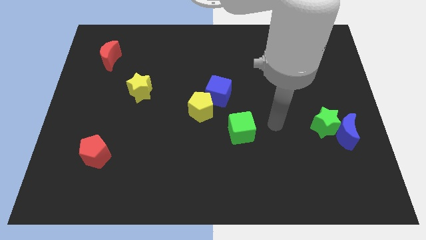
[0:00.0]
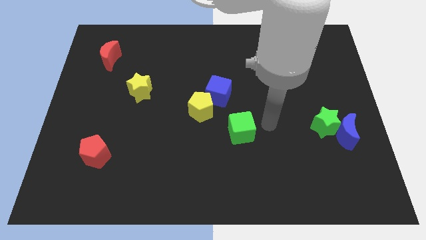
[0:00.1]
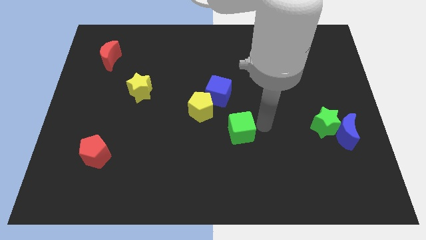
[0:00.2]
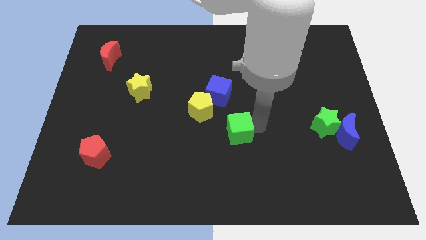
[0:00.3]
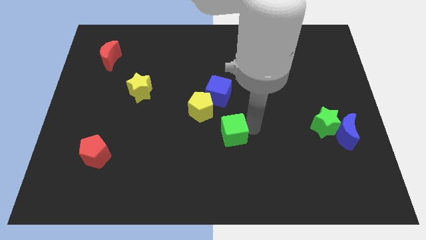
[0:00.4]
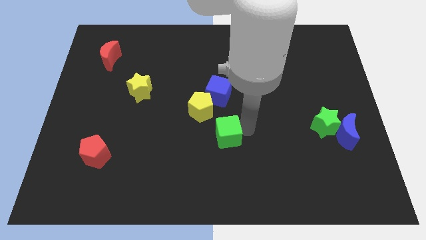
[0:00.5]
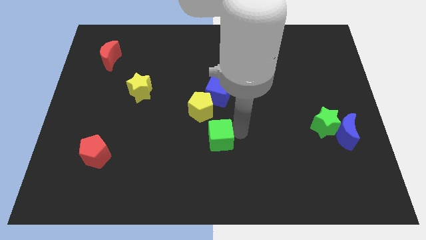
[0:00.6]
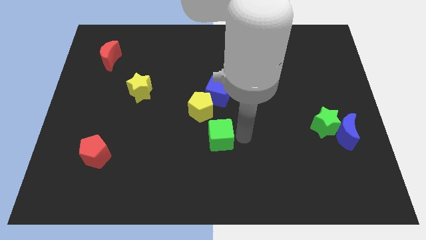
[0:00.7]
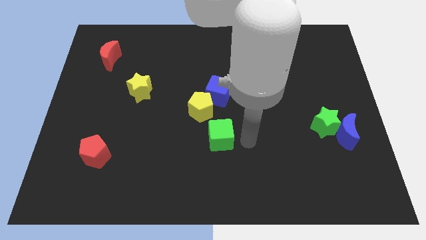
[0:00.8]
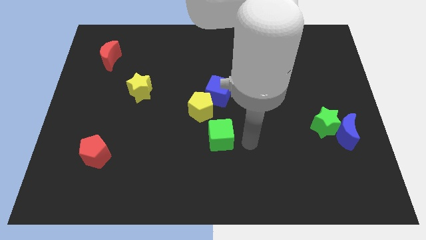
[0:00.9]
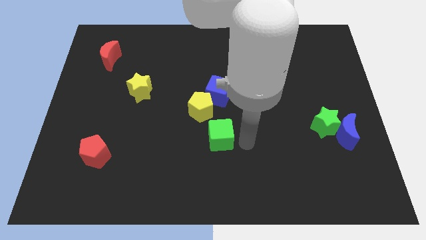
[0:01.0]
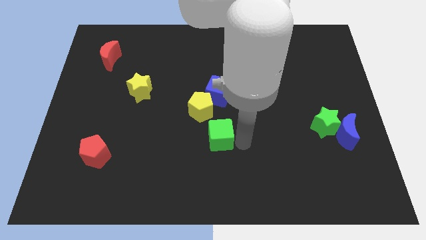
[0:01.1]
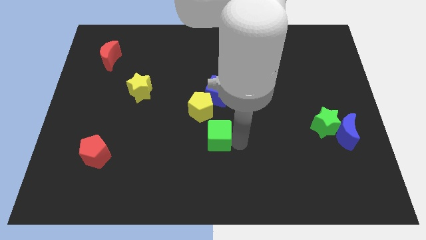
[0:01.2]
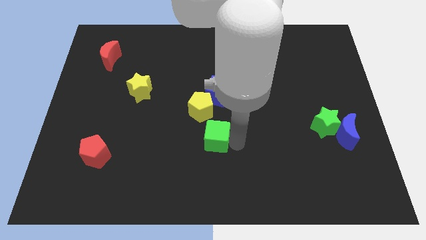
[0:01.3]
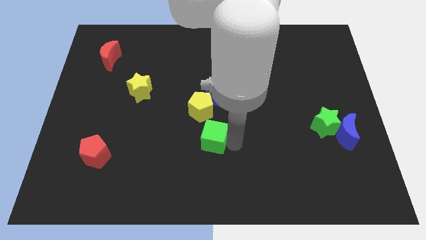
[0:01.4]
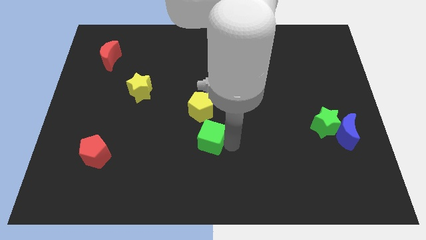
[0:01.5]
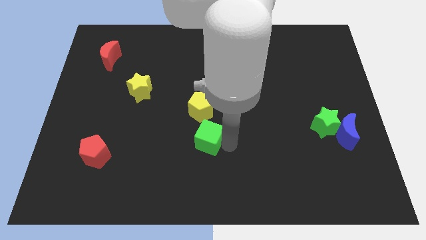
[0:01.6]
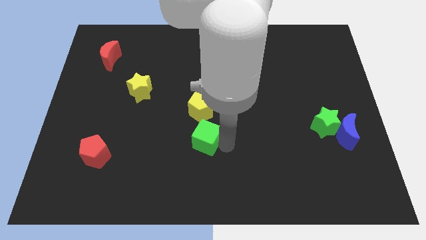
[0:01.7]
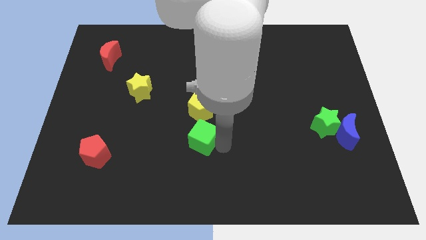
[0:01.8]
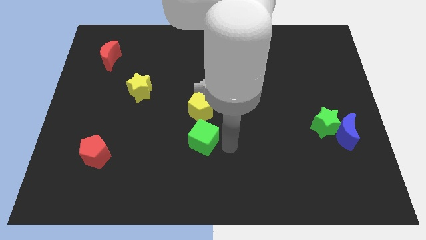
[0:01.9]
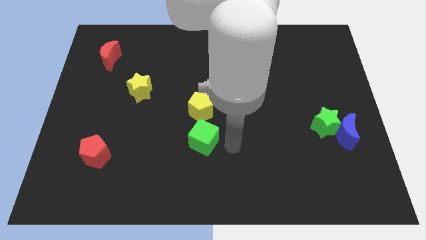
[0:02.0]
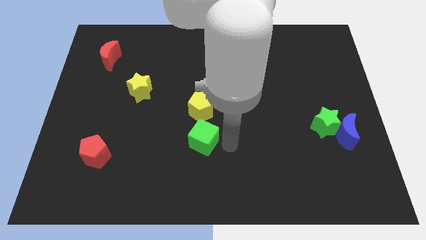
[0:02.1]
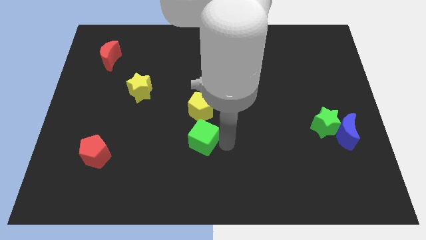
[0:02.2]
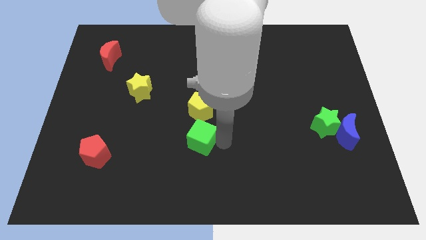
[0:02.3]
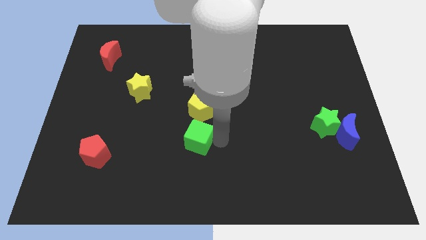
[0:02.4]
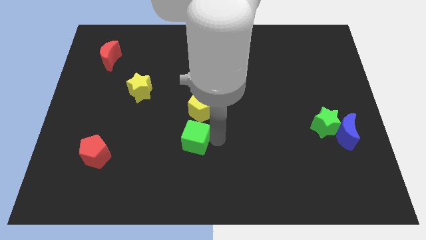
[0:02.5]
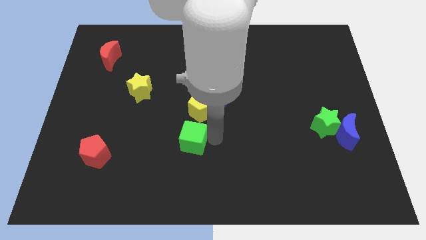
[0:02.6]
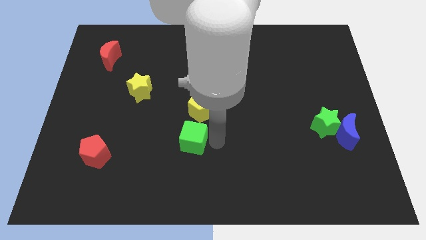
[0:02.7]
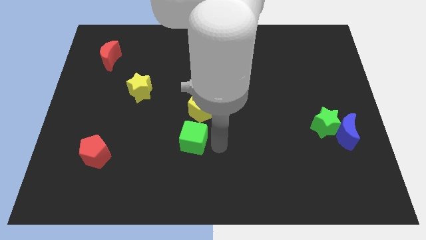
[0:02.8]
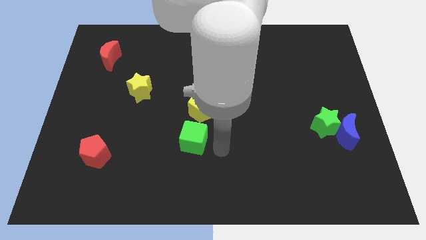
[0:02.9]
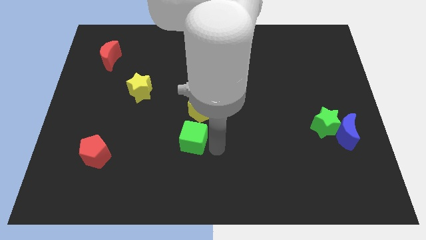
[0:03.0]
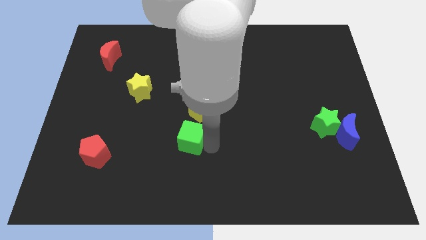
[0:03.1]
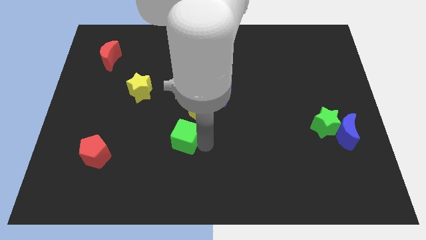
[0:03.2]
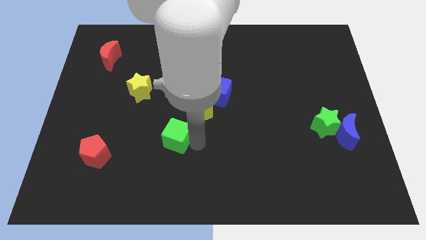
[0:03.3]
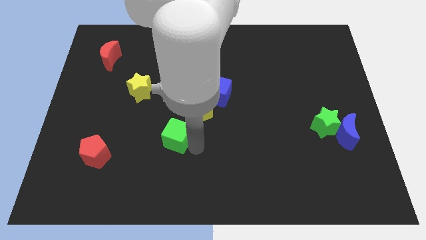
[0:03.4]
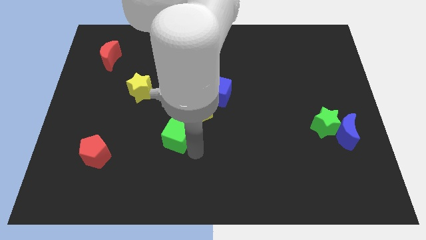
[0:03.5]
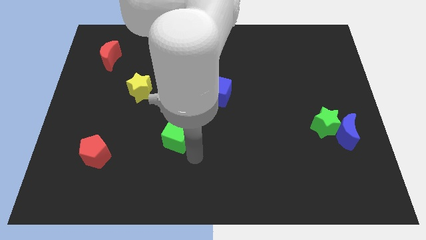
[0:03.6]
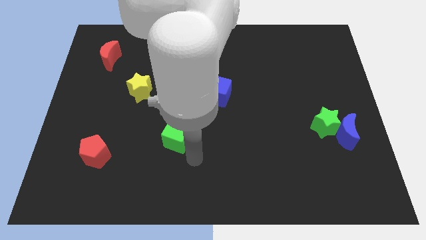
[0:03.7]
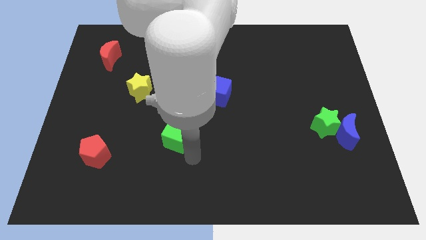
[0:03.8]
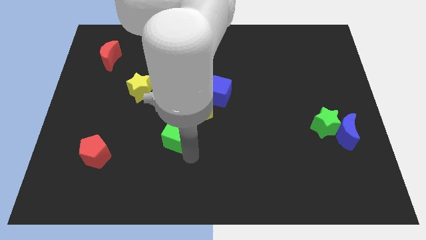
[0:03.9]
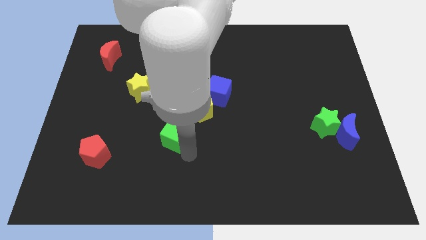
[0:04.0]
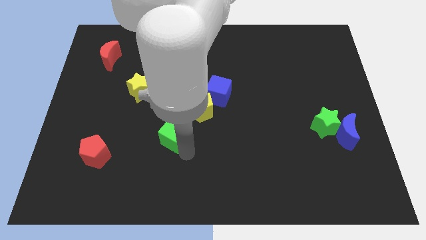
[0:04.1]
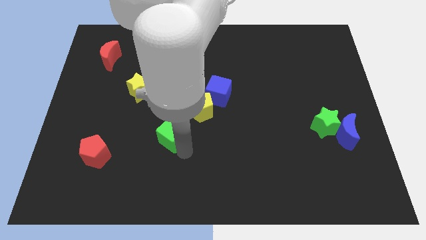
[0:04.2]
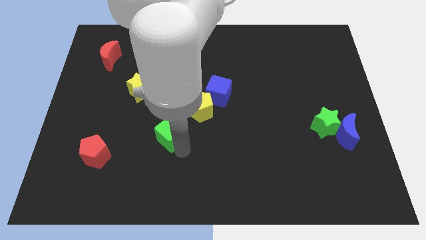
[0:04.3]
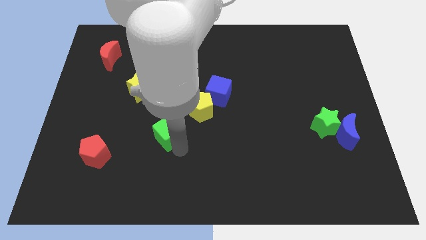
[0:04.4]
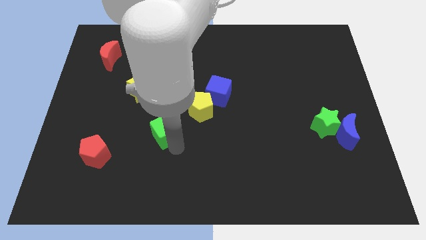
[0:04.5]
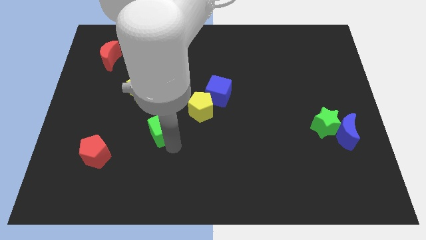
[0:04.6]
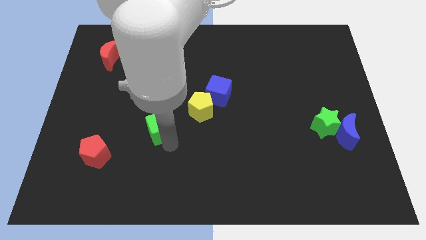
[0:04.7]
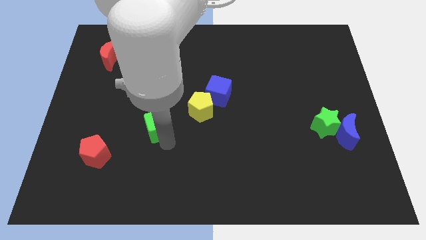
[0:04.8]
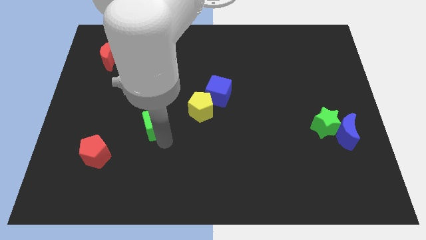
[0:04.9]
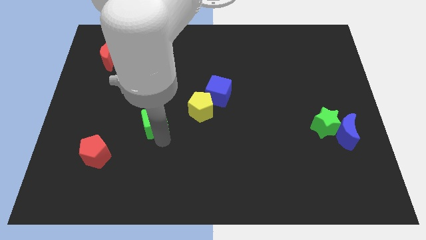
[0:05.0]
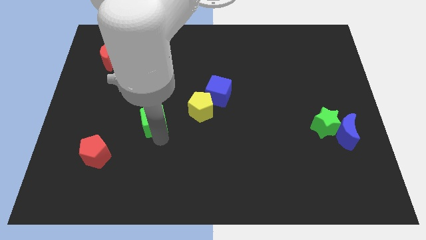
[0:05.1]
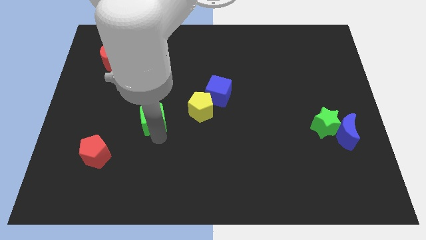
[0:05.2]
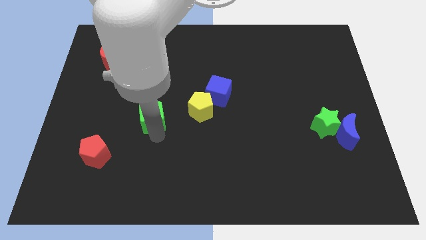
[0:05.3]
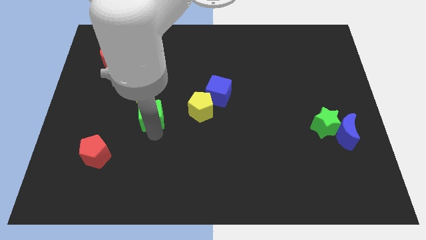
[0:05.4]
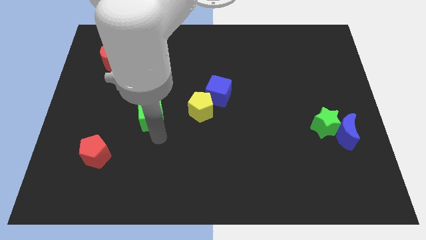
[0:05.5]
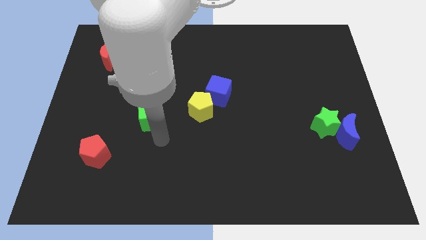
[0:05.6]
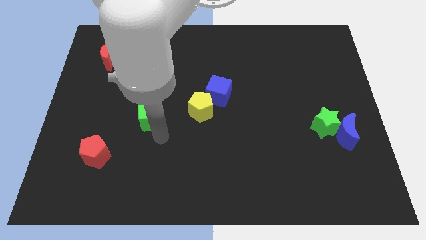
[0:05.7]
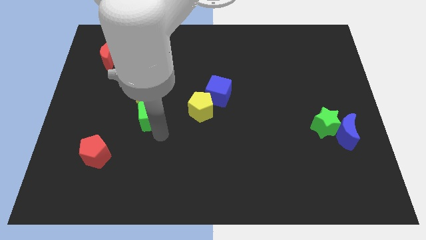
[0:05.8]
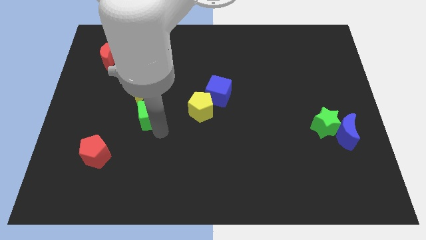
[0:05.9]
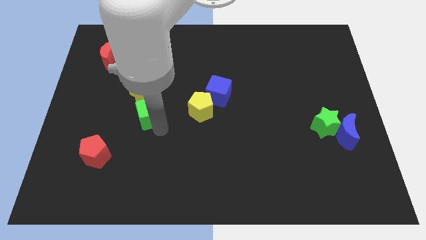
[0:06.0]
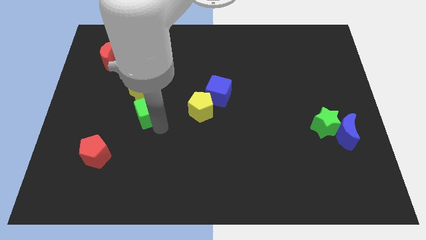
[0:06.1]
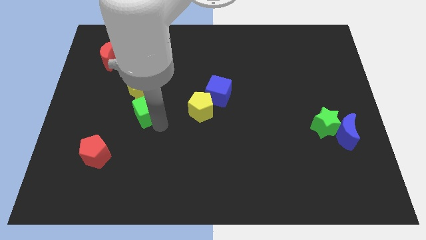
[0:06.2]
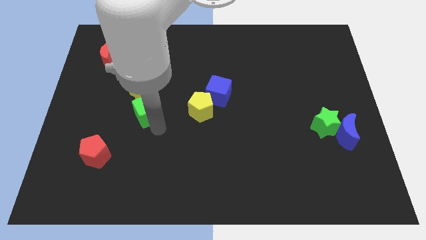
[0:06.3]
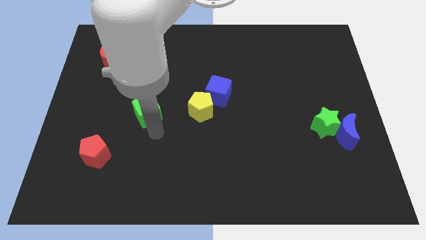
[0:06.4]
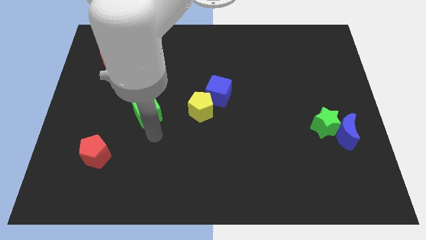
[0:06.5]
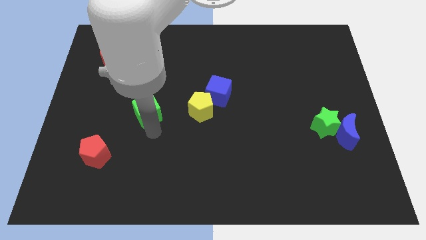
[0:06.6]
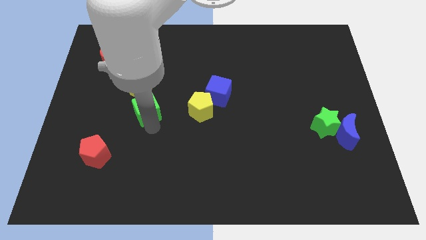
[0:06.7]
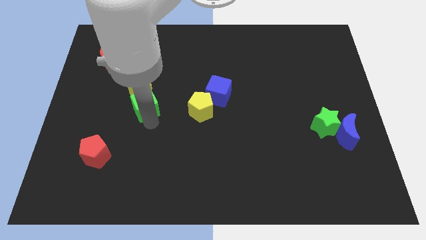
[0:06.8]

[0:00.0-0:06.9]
slide the green cube close to the yellow star
